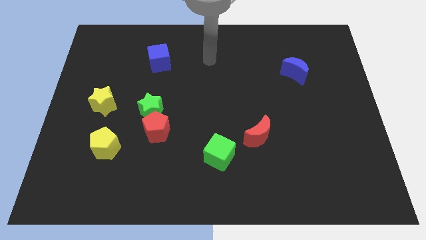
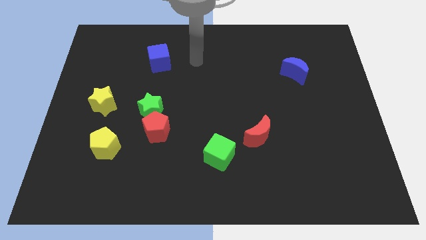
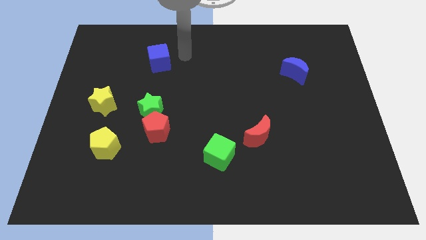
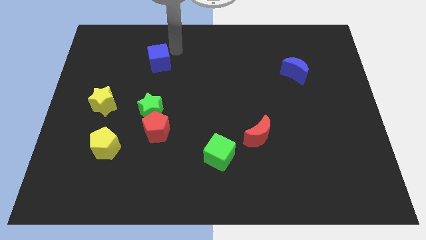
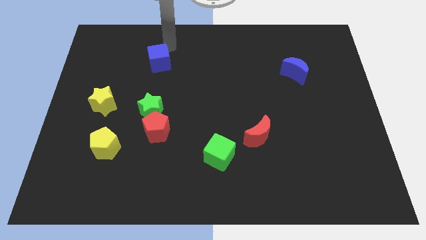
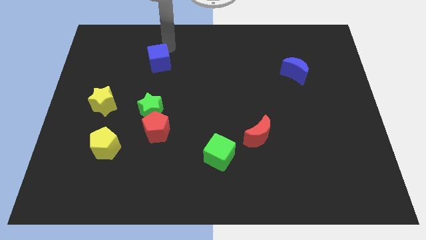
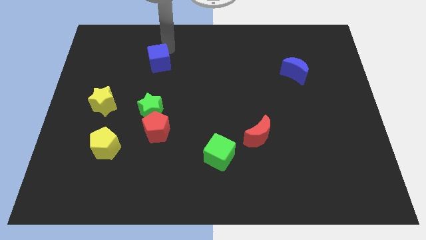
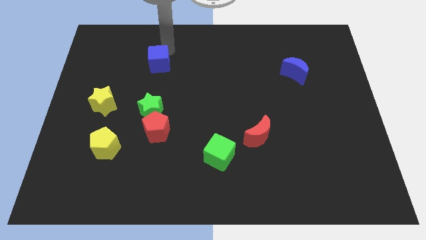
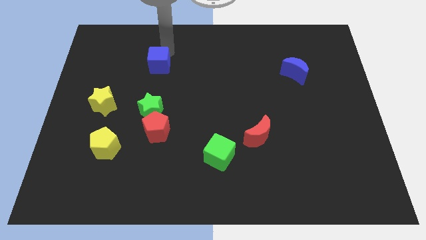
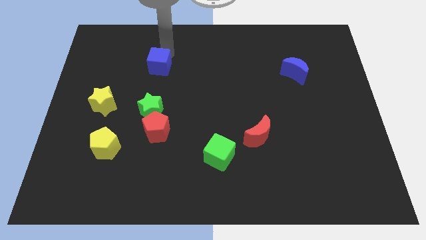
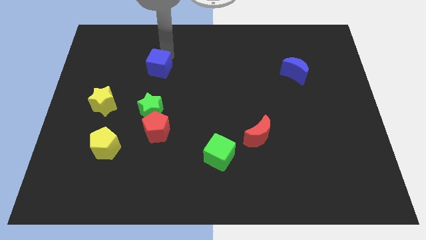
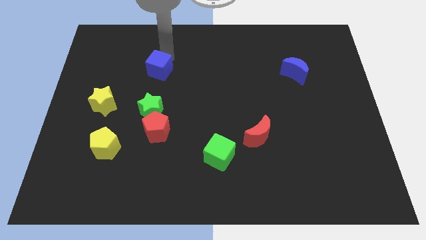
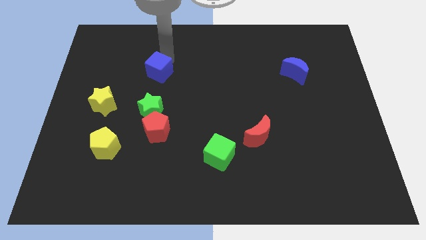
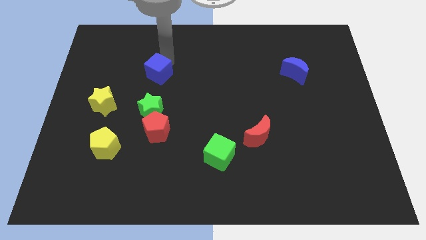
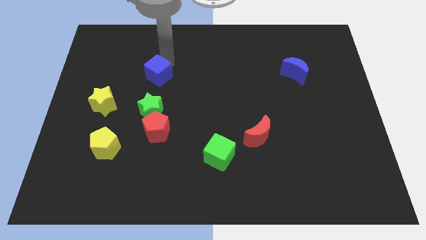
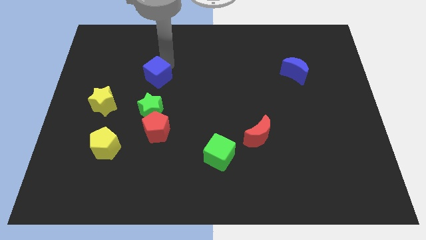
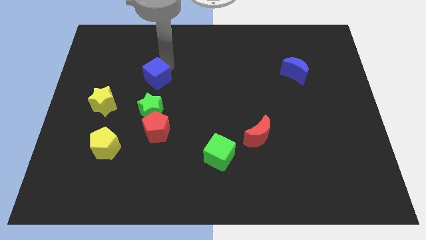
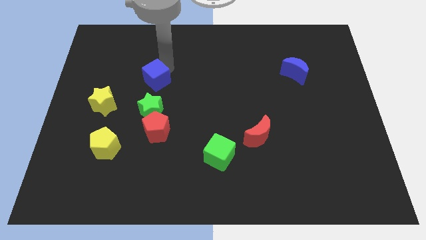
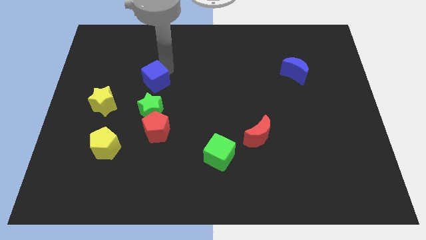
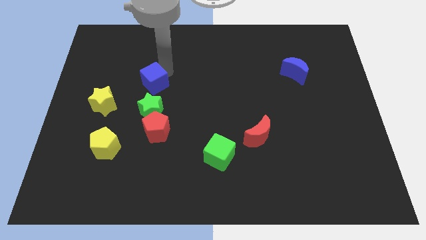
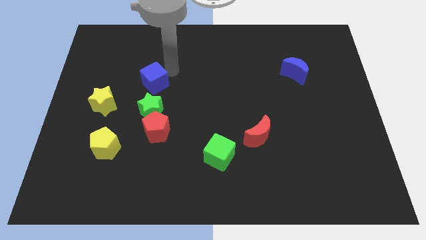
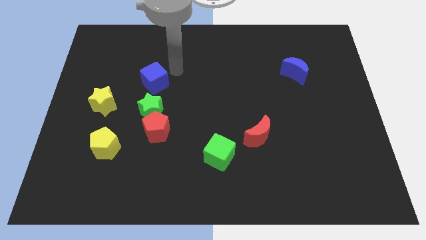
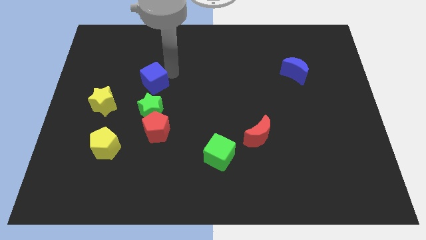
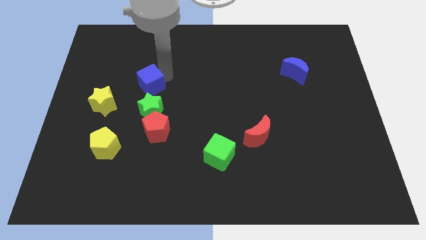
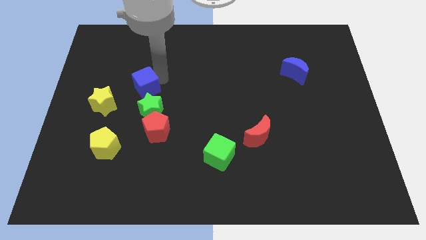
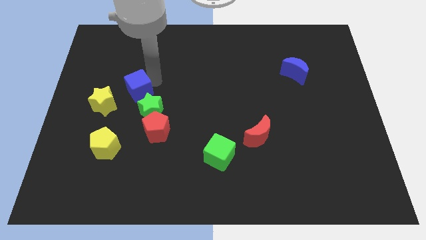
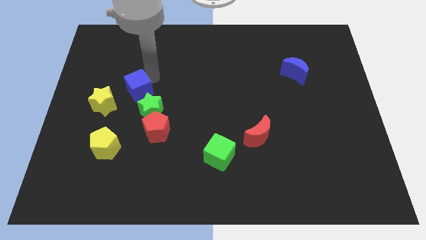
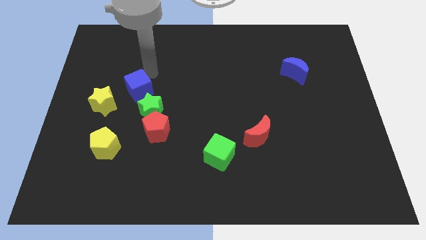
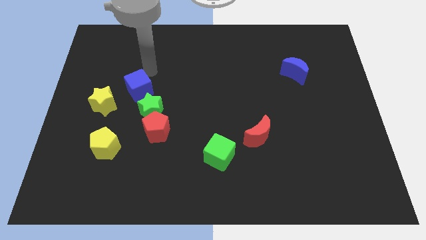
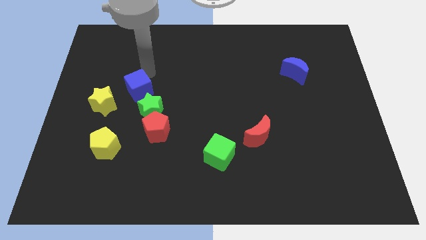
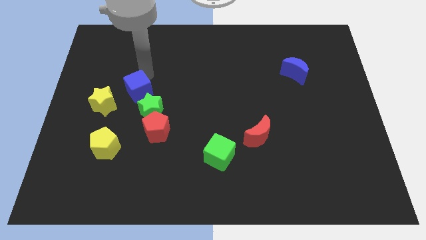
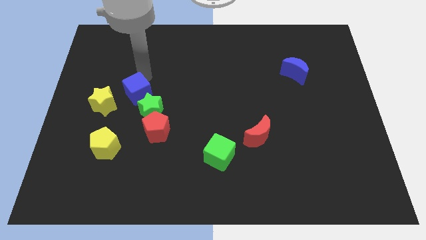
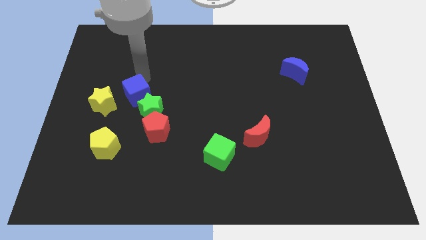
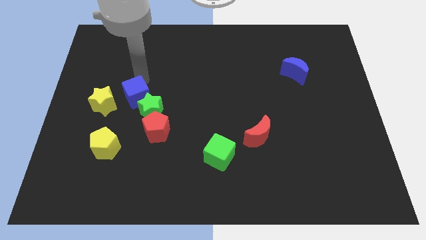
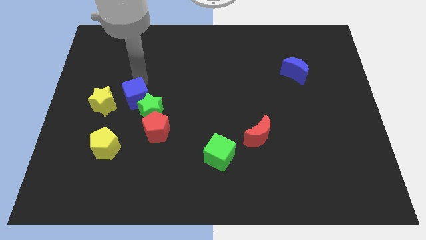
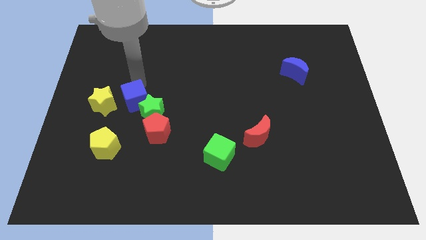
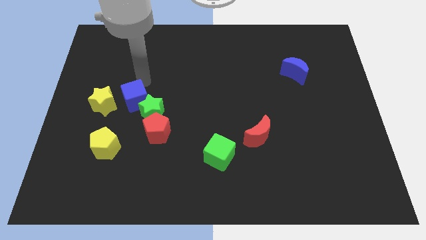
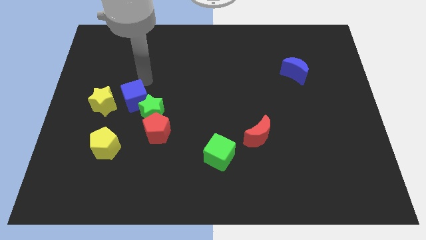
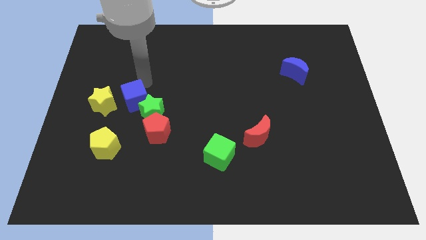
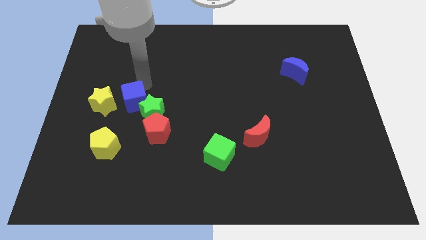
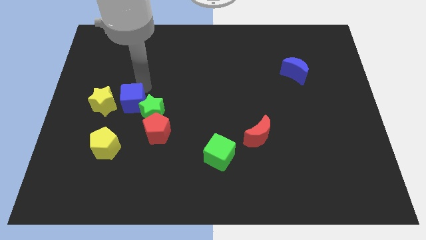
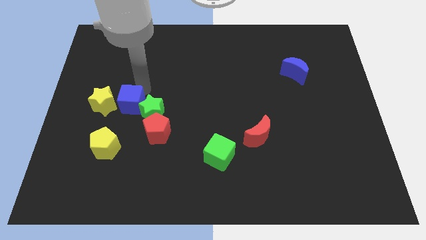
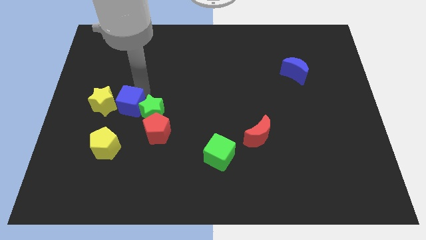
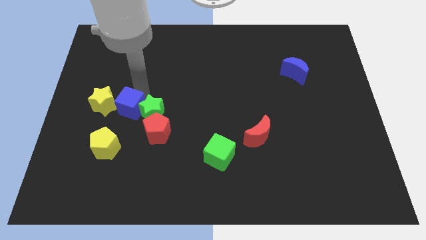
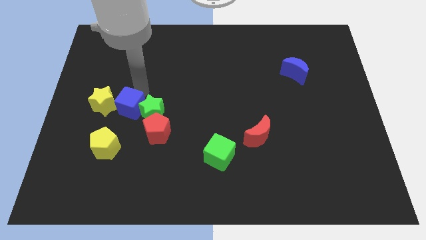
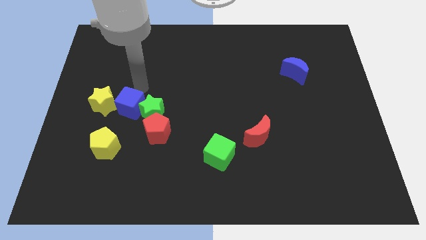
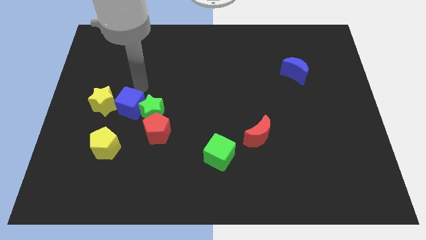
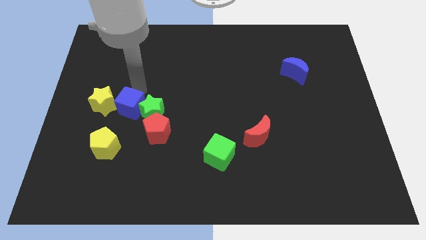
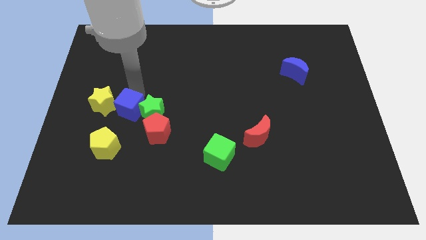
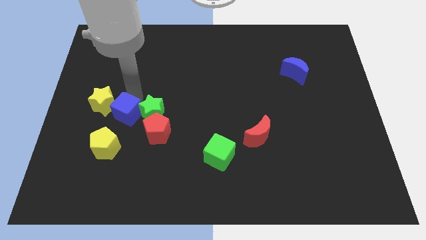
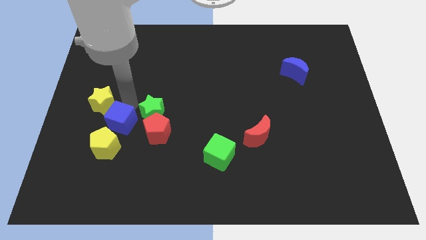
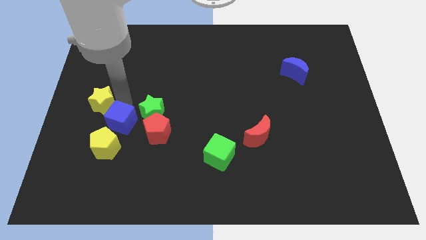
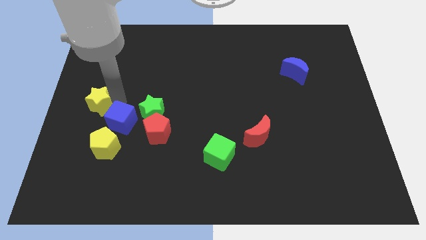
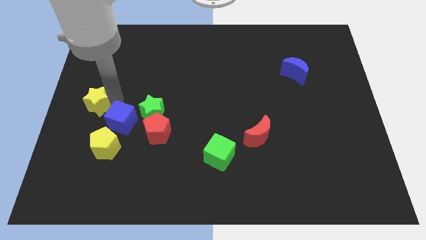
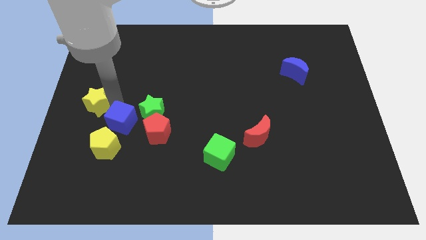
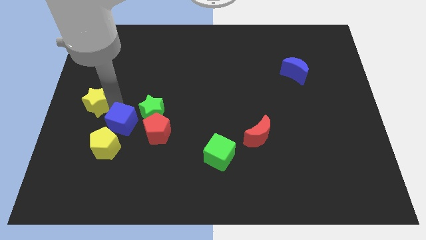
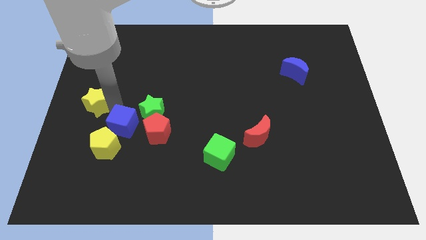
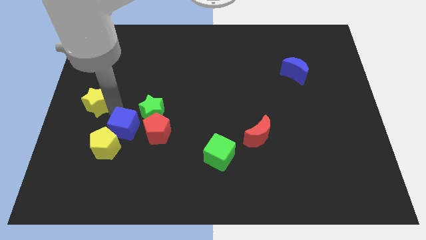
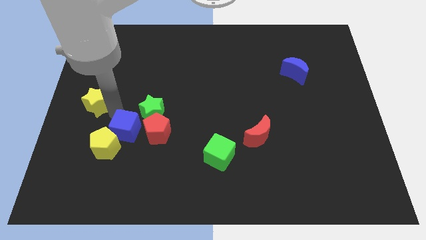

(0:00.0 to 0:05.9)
push the blue cube down

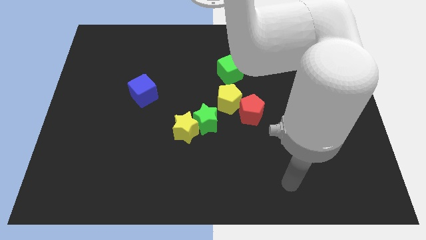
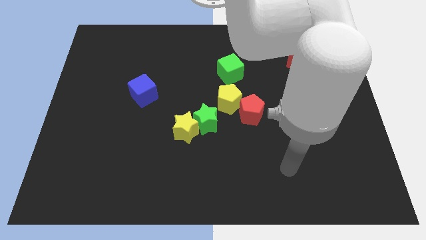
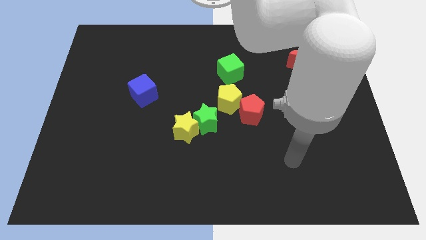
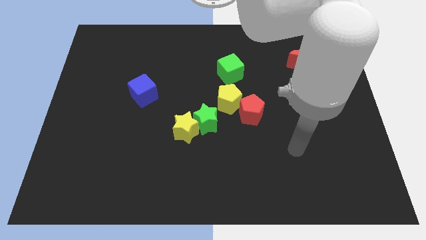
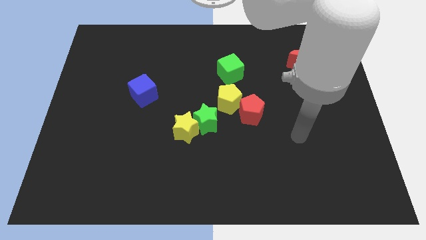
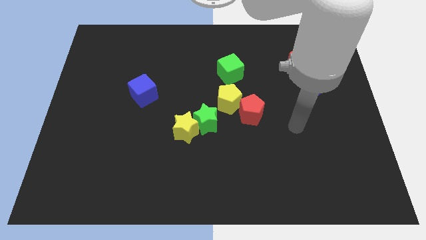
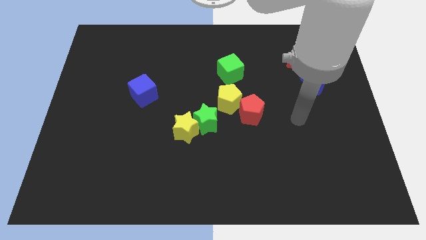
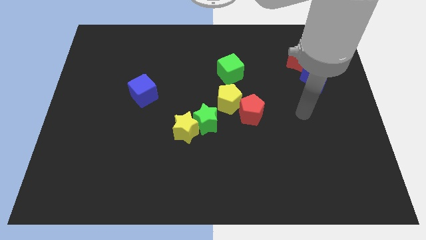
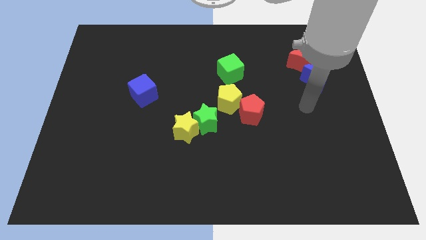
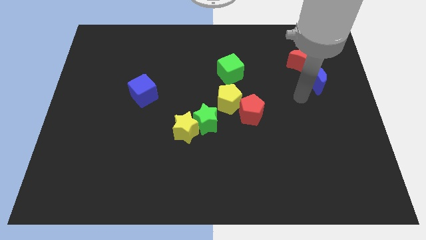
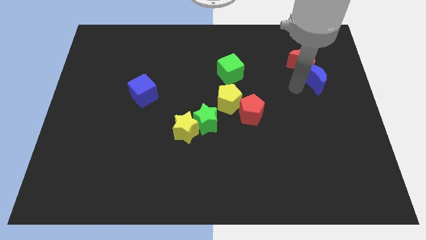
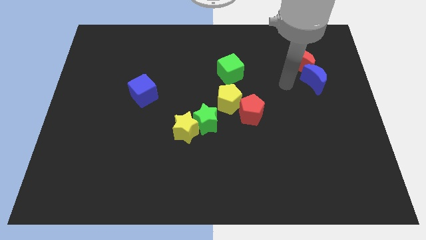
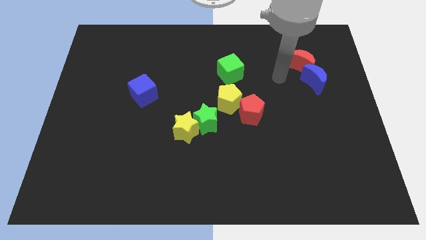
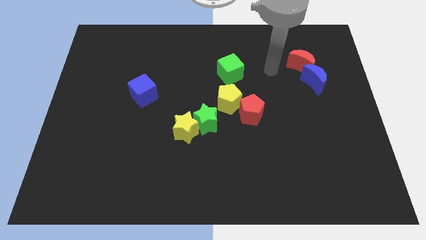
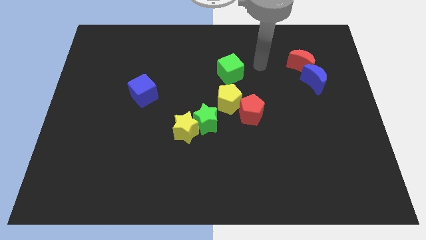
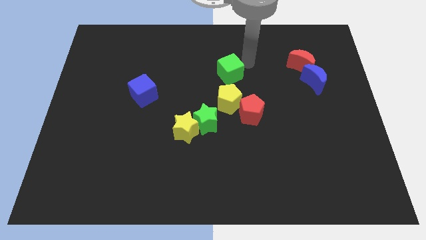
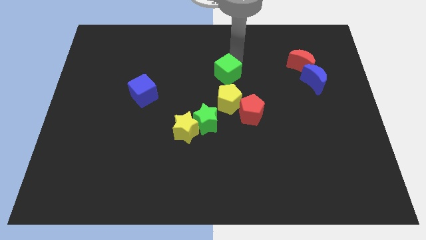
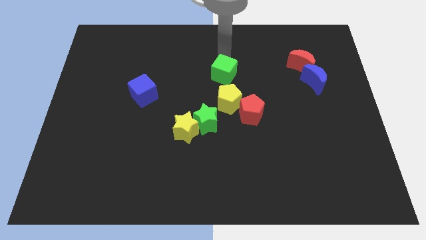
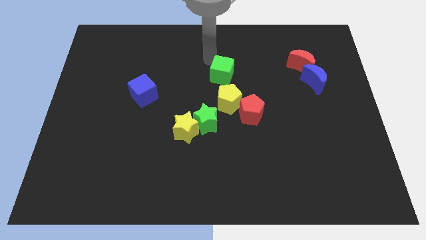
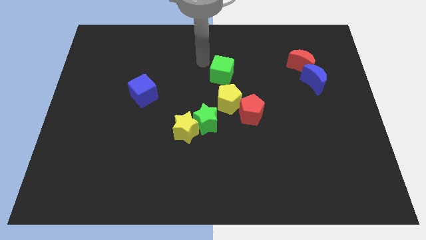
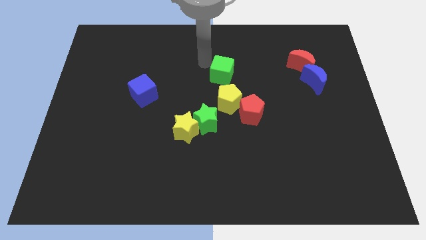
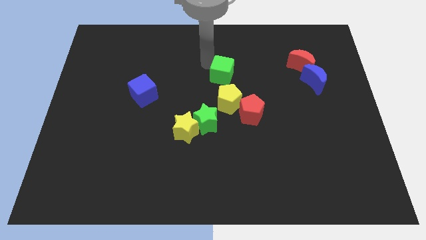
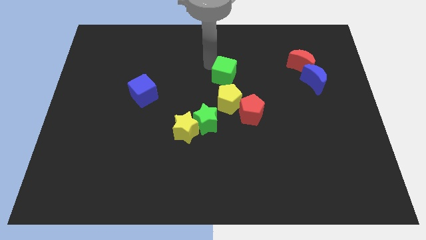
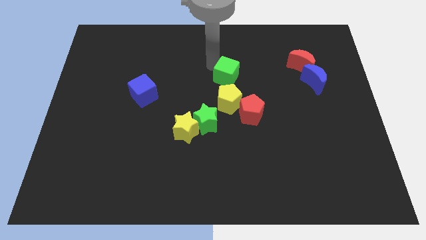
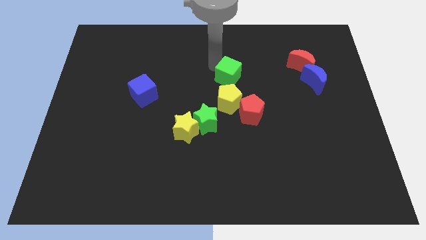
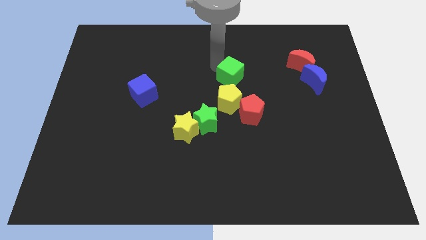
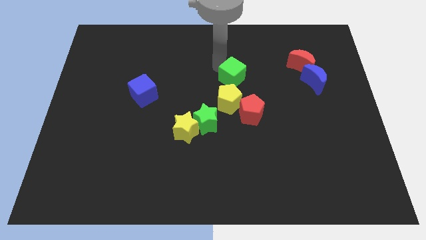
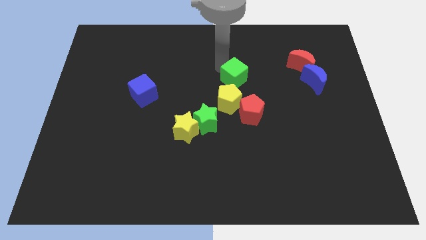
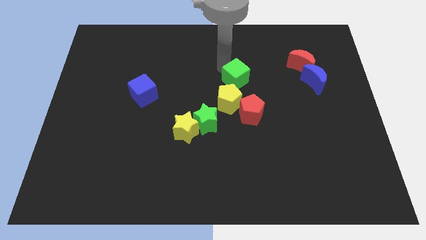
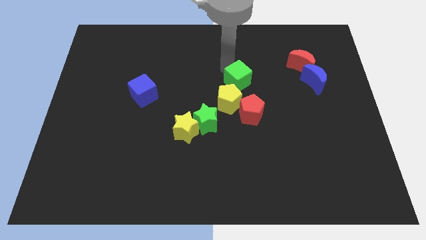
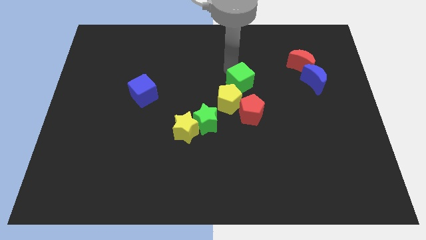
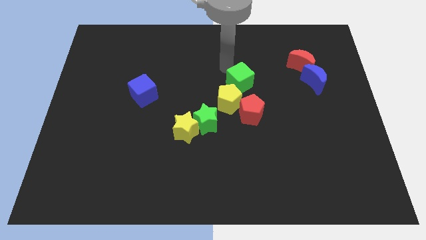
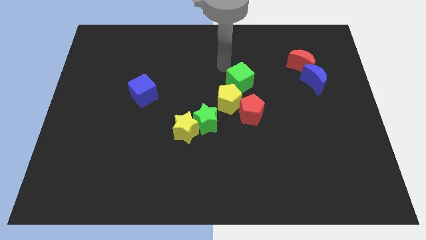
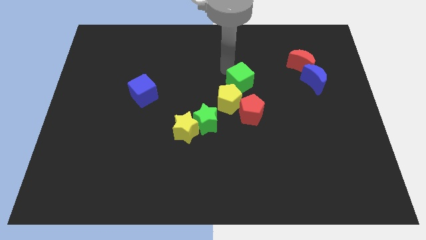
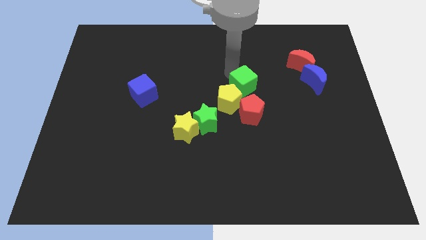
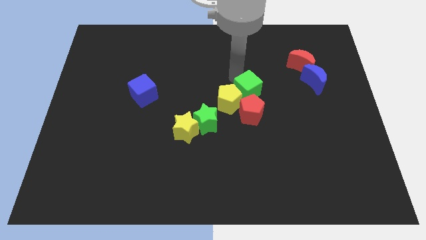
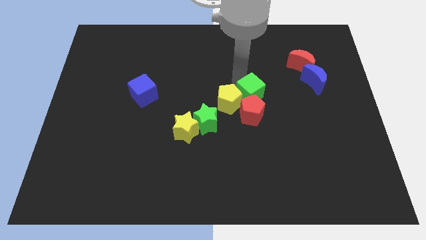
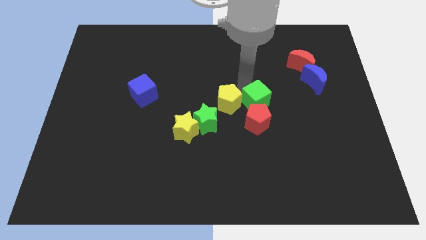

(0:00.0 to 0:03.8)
move the green cube down slightly
